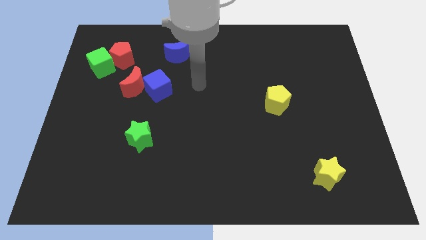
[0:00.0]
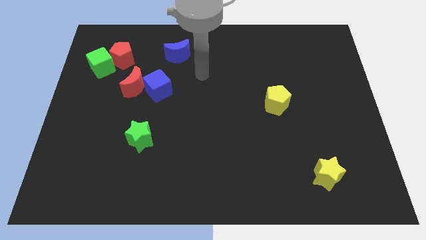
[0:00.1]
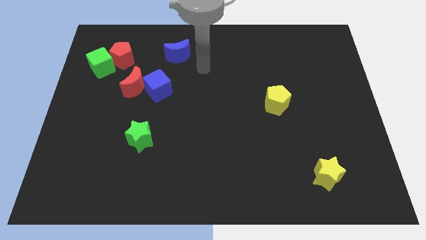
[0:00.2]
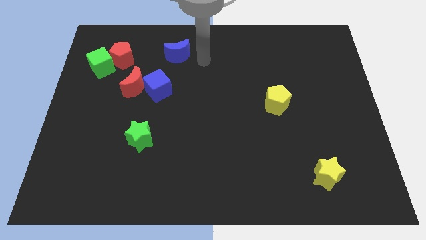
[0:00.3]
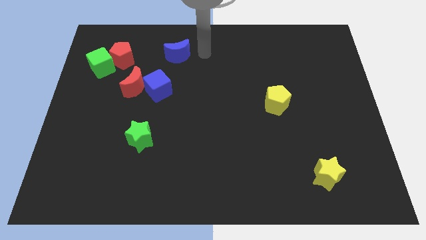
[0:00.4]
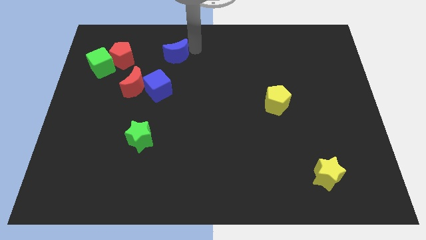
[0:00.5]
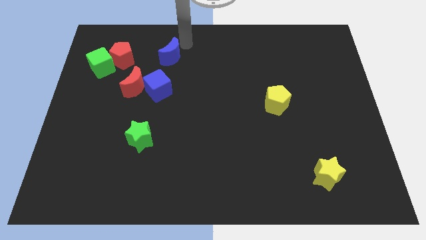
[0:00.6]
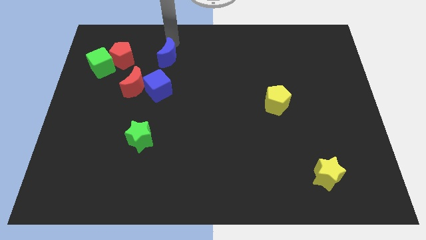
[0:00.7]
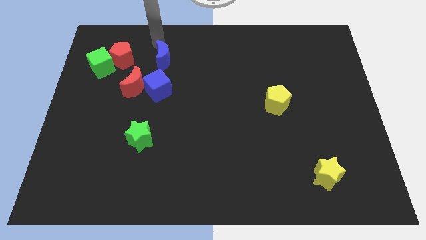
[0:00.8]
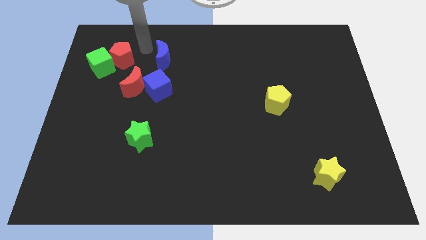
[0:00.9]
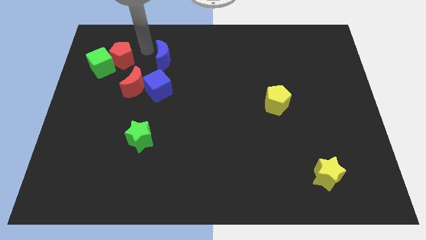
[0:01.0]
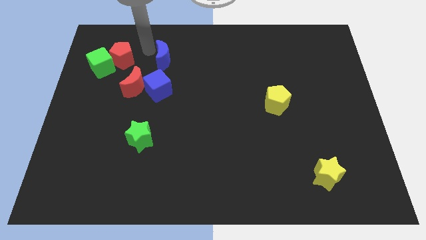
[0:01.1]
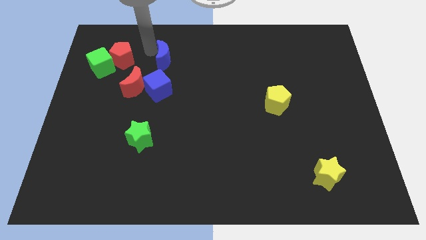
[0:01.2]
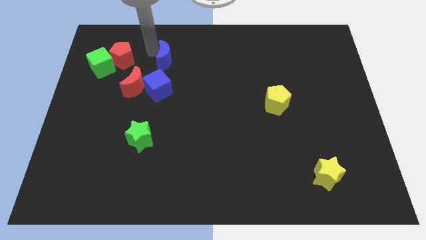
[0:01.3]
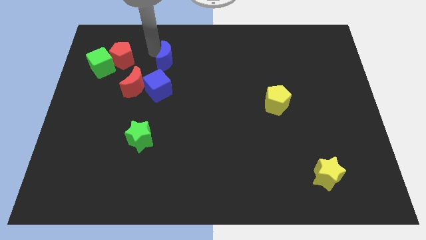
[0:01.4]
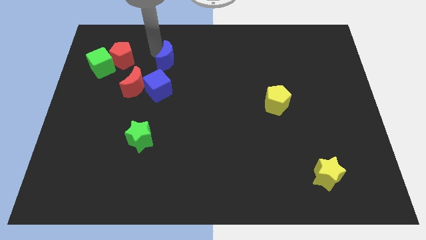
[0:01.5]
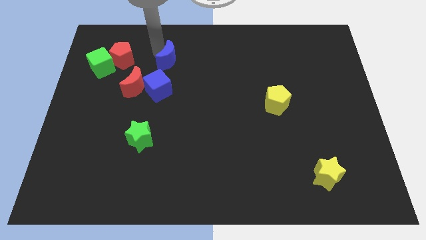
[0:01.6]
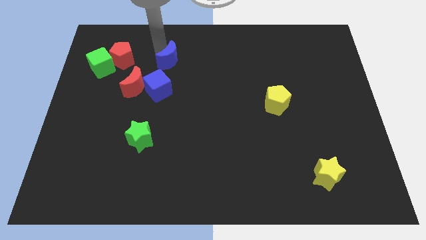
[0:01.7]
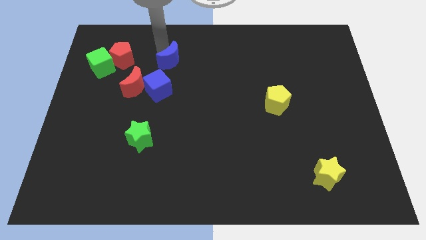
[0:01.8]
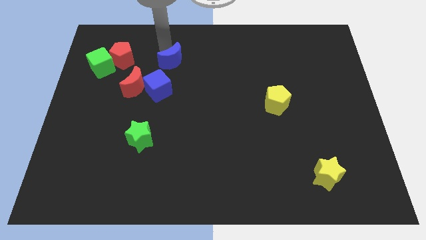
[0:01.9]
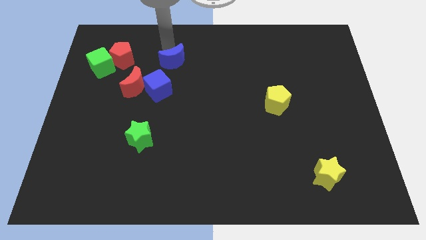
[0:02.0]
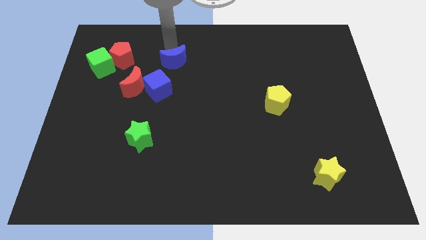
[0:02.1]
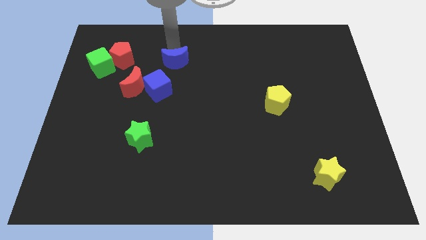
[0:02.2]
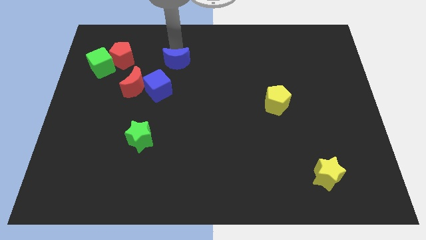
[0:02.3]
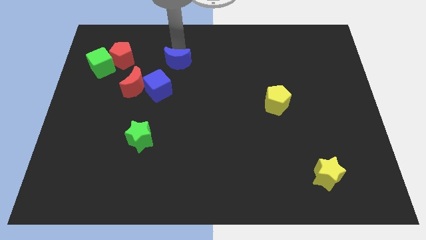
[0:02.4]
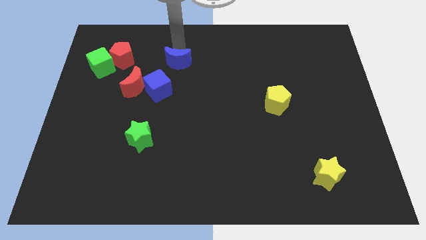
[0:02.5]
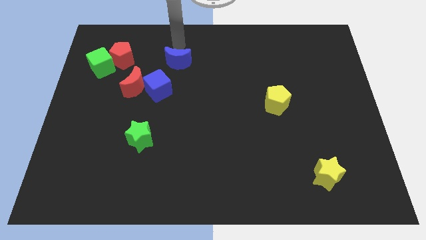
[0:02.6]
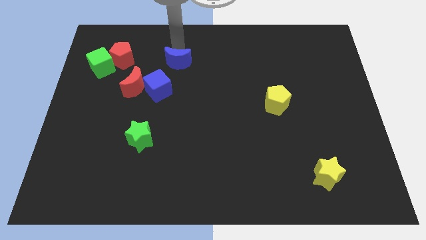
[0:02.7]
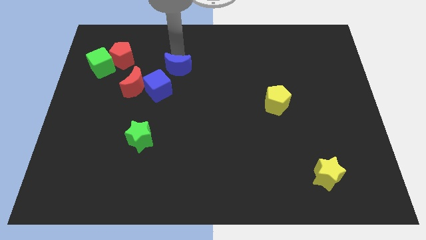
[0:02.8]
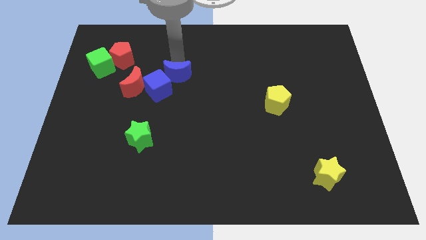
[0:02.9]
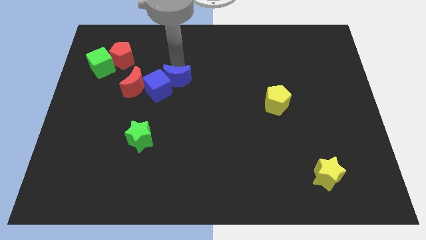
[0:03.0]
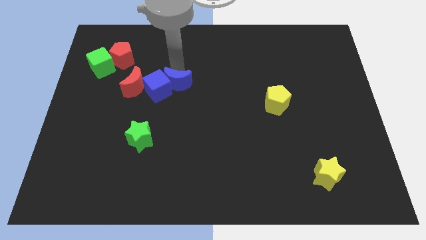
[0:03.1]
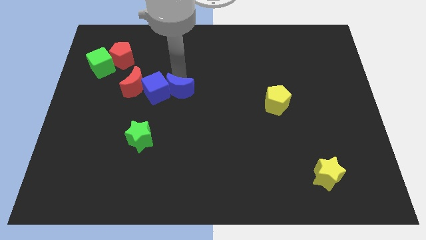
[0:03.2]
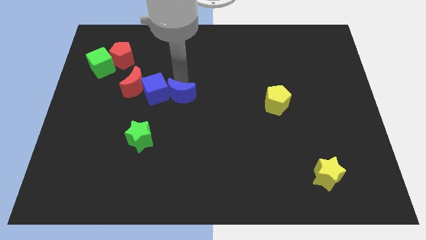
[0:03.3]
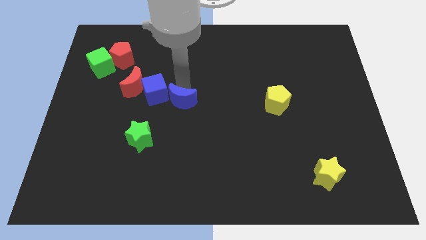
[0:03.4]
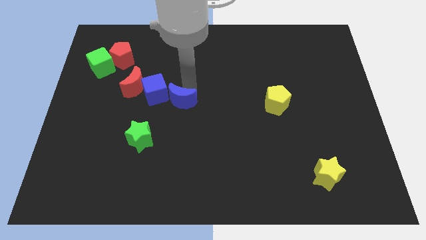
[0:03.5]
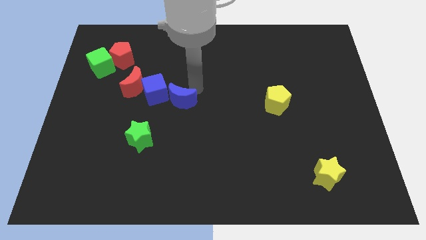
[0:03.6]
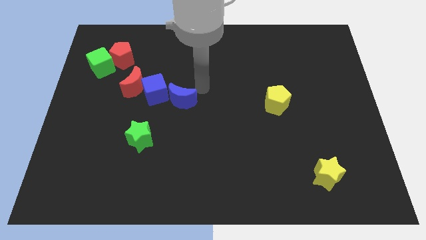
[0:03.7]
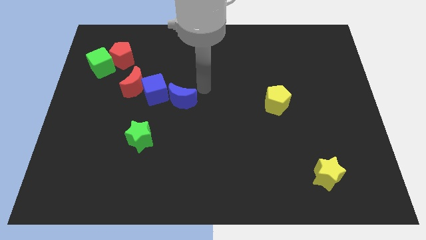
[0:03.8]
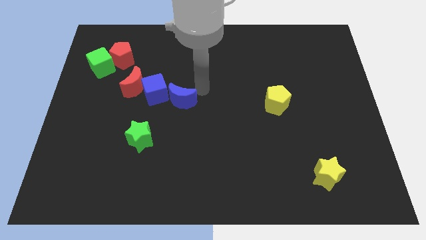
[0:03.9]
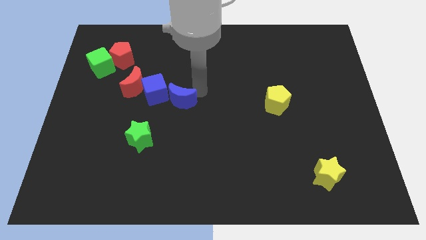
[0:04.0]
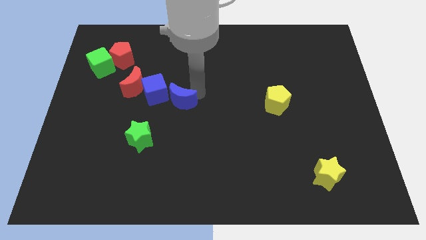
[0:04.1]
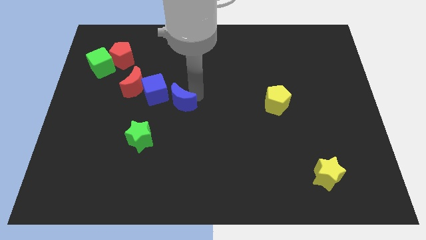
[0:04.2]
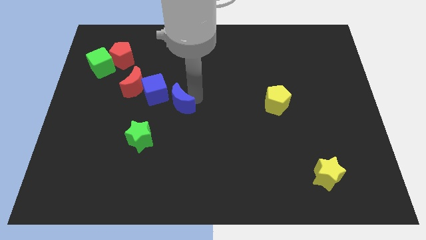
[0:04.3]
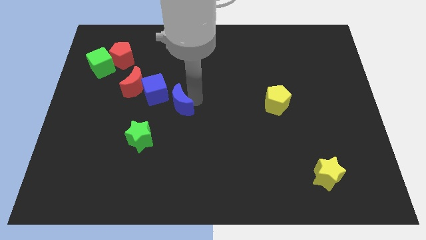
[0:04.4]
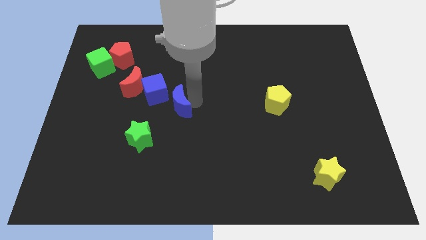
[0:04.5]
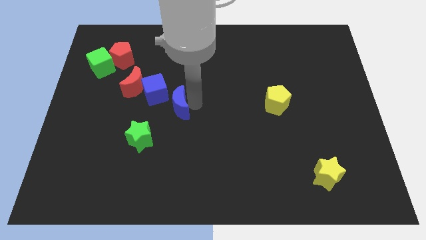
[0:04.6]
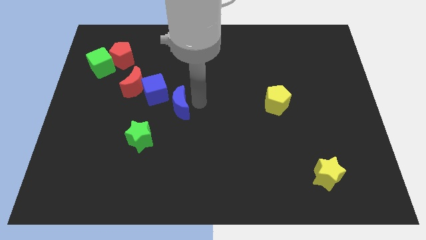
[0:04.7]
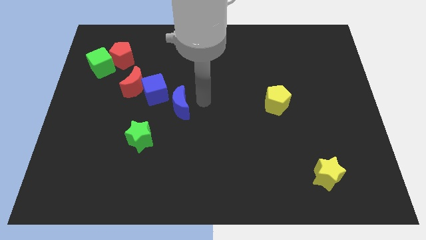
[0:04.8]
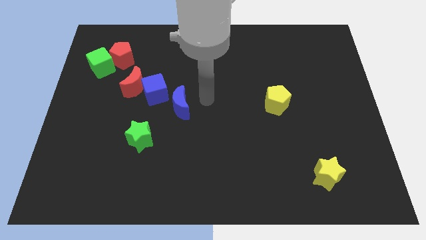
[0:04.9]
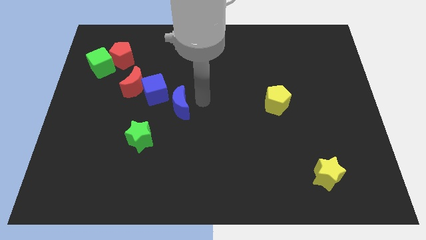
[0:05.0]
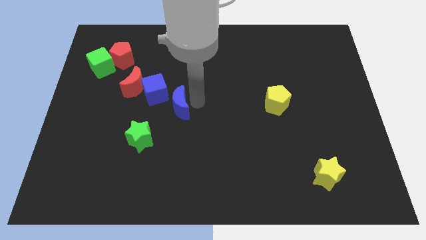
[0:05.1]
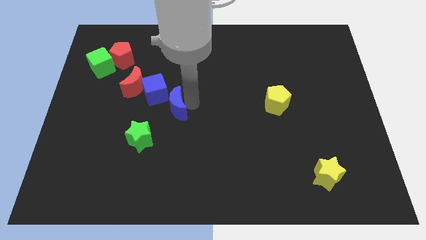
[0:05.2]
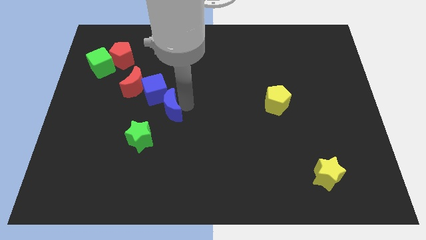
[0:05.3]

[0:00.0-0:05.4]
move the blue moon to the bottom side of the blue cube

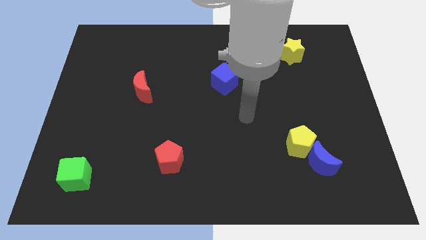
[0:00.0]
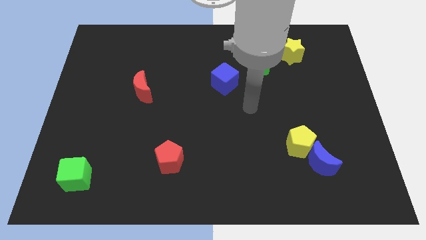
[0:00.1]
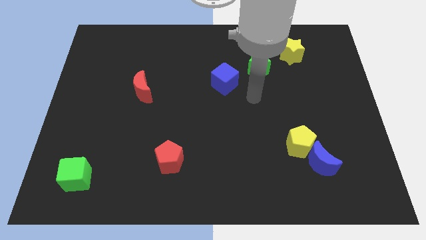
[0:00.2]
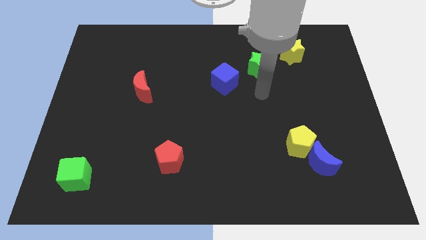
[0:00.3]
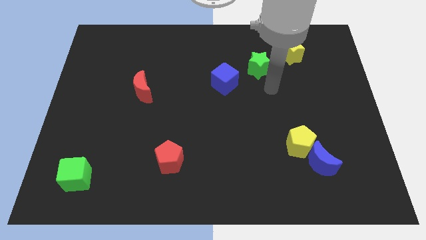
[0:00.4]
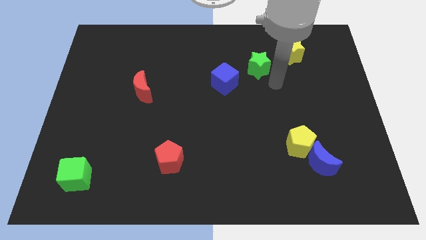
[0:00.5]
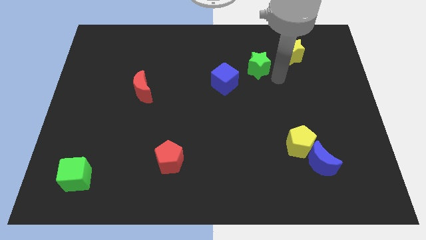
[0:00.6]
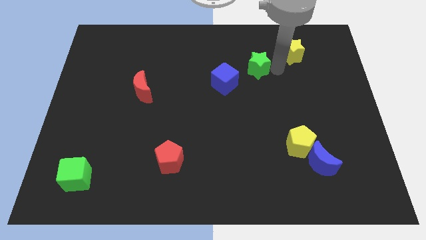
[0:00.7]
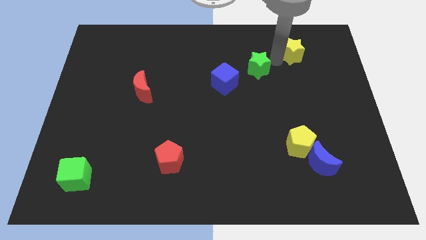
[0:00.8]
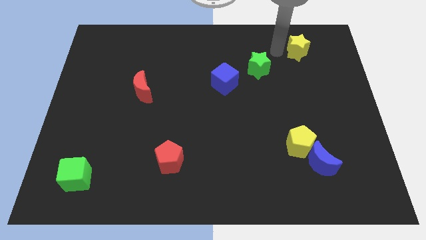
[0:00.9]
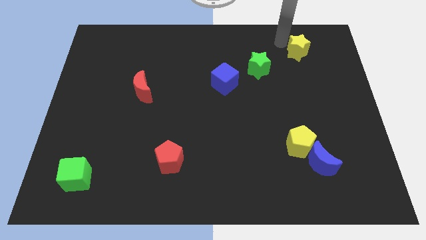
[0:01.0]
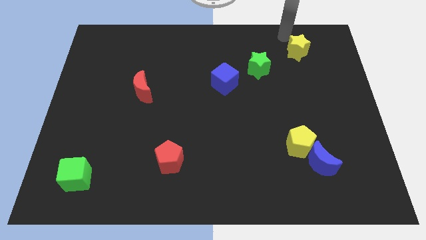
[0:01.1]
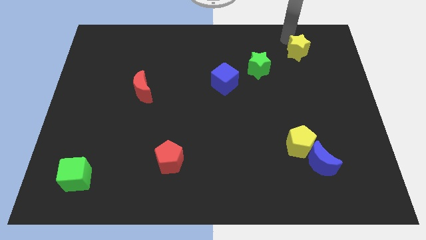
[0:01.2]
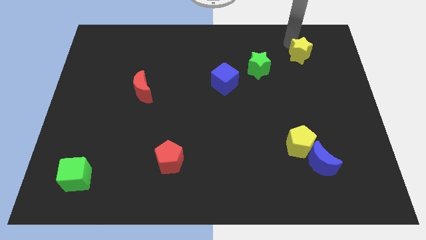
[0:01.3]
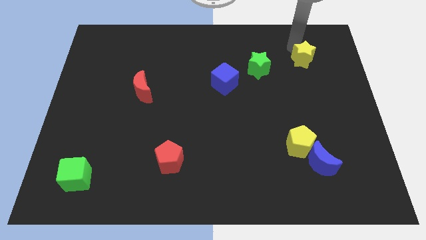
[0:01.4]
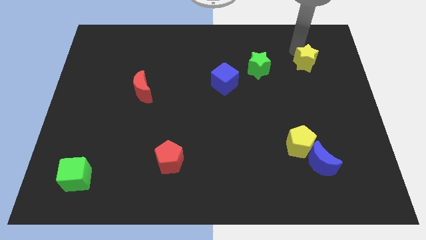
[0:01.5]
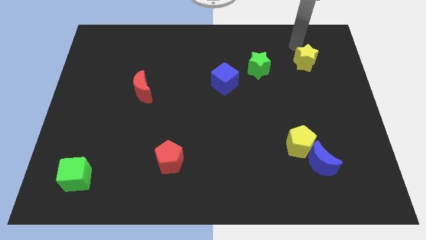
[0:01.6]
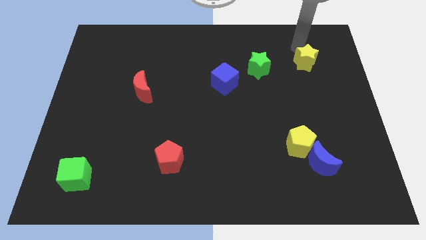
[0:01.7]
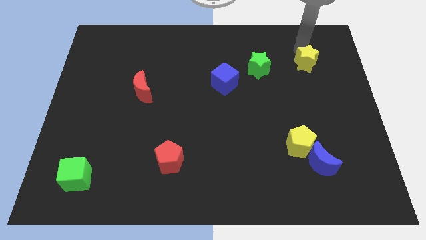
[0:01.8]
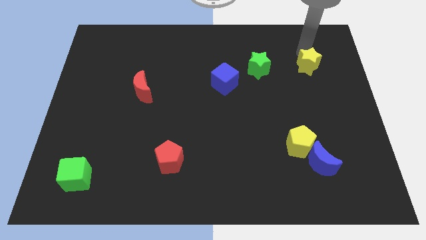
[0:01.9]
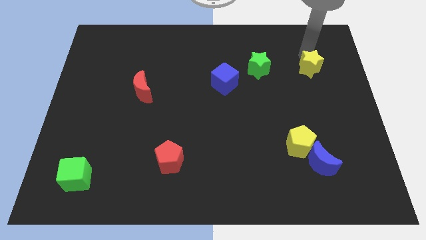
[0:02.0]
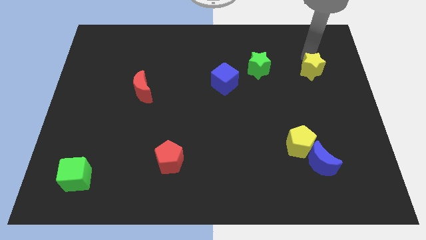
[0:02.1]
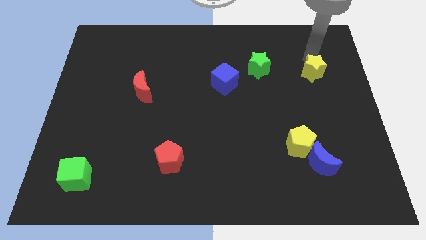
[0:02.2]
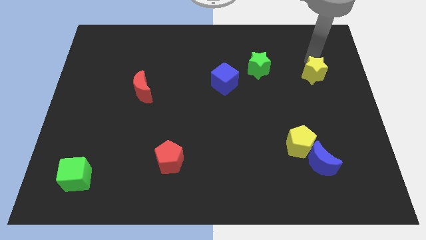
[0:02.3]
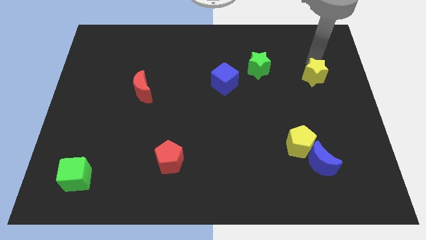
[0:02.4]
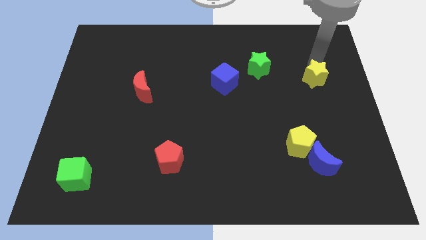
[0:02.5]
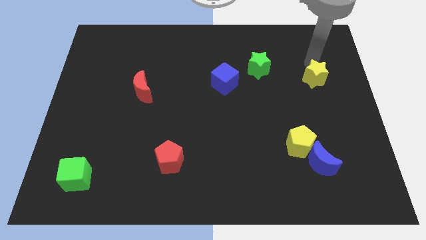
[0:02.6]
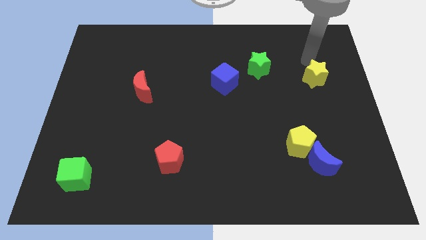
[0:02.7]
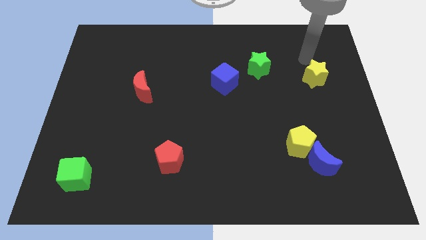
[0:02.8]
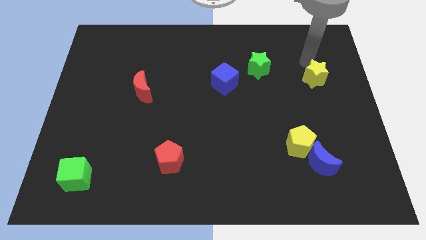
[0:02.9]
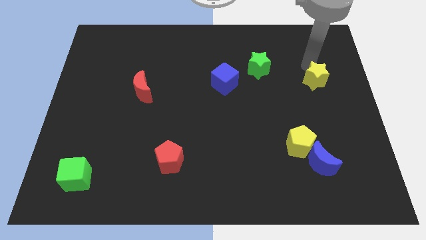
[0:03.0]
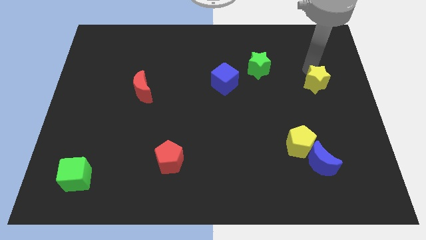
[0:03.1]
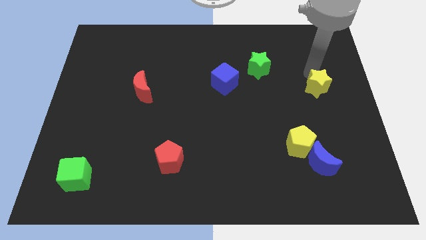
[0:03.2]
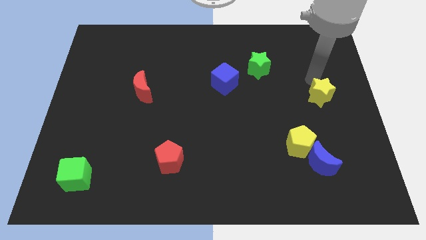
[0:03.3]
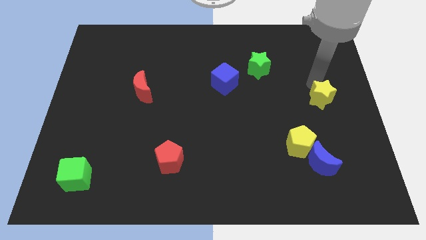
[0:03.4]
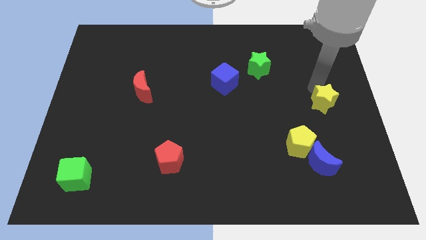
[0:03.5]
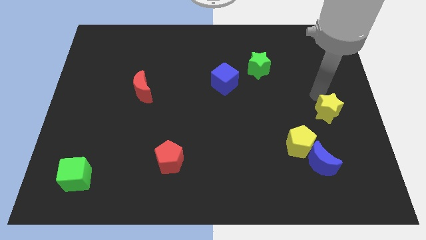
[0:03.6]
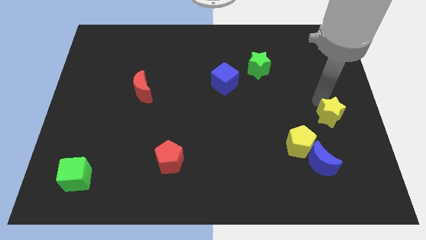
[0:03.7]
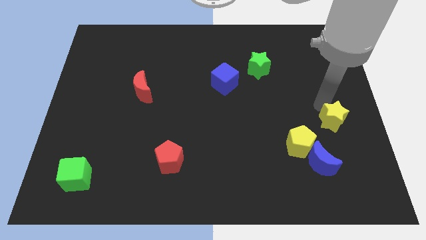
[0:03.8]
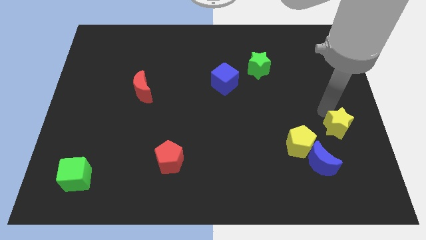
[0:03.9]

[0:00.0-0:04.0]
push the yellow star to the right of the yellow pentagon
